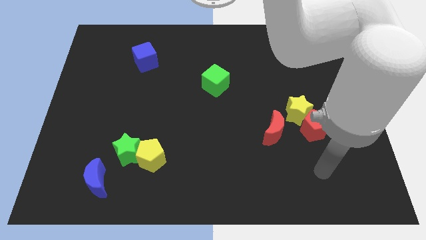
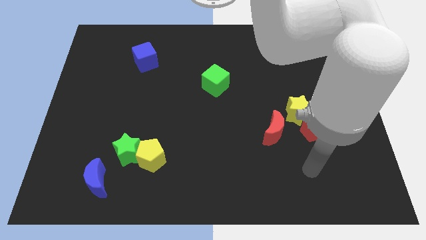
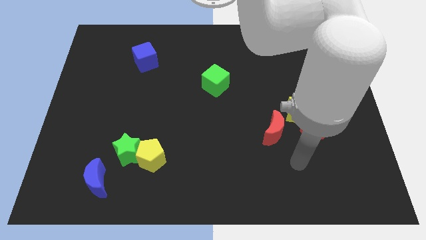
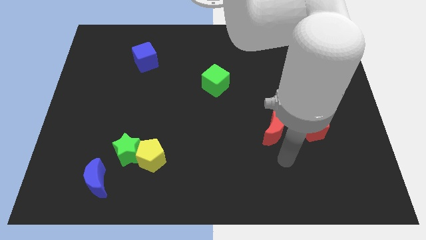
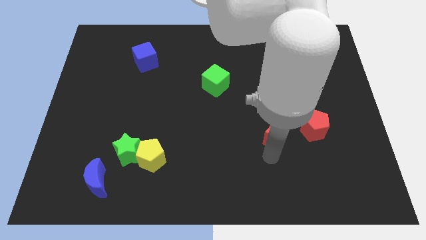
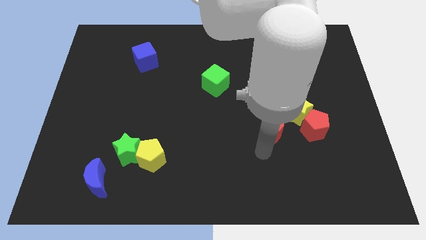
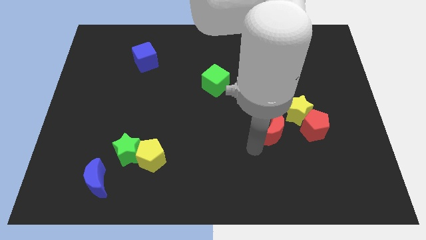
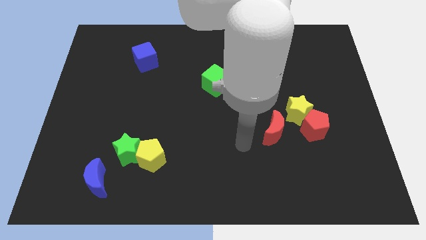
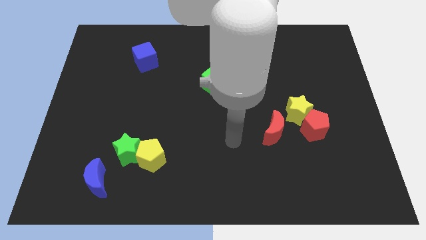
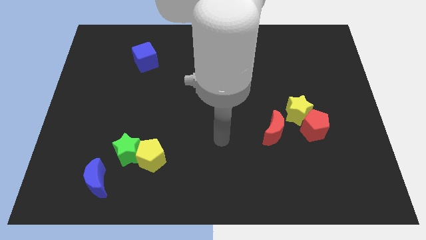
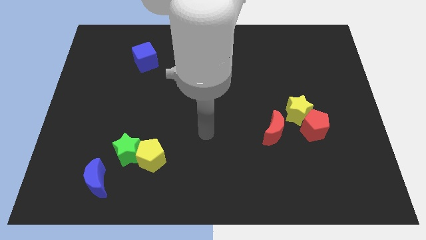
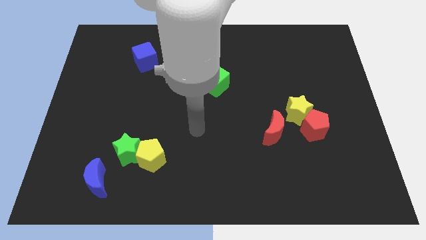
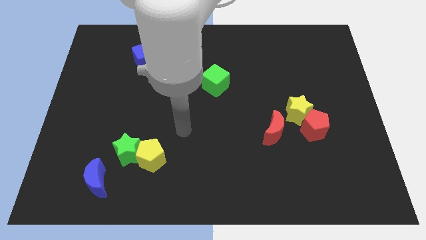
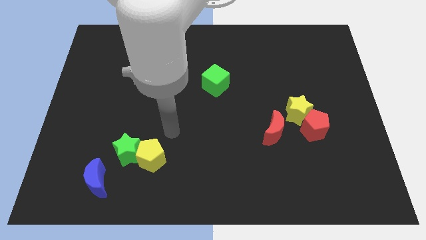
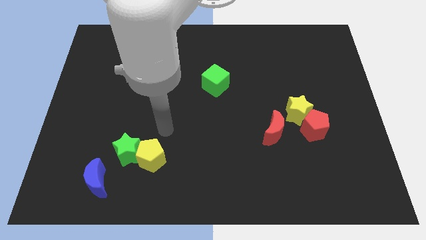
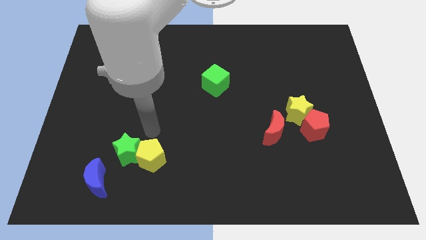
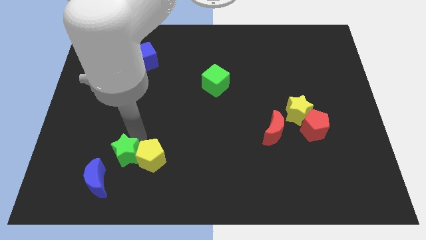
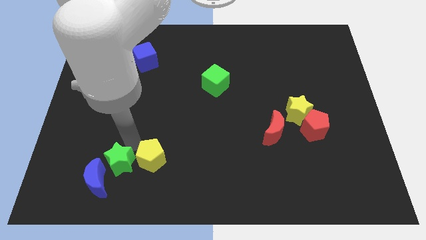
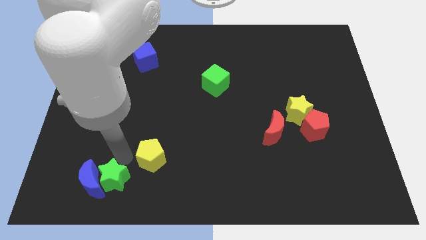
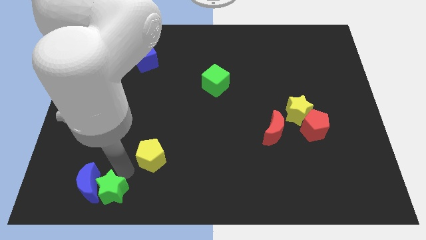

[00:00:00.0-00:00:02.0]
pull the yellow pentagon apart from the green star

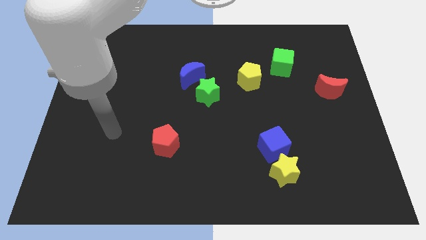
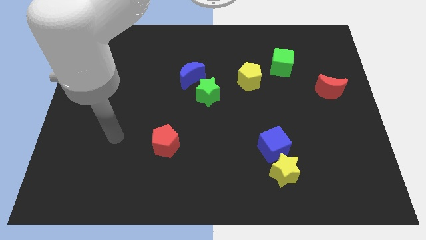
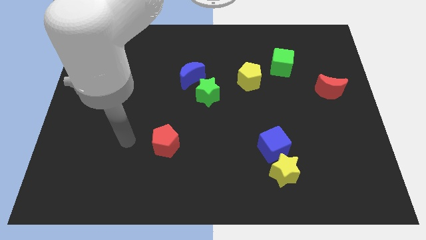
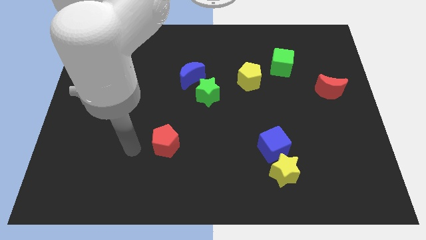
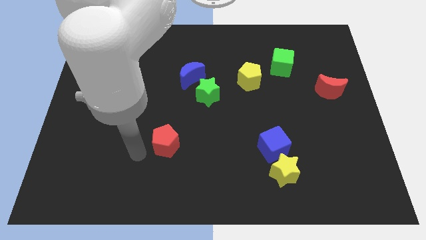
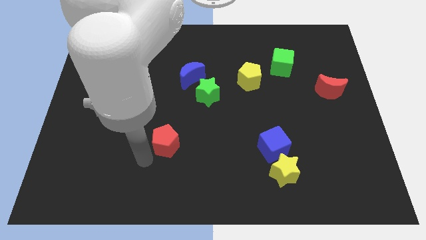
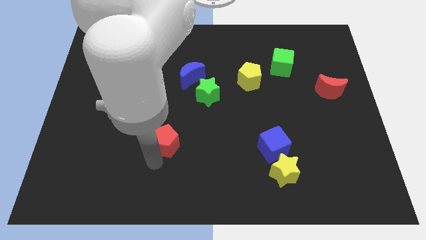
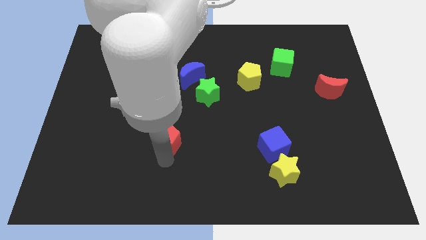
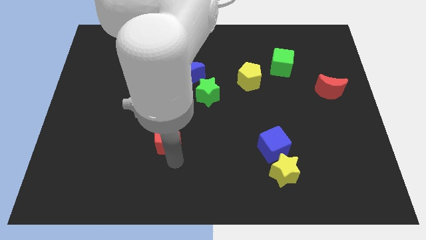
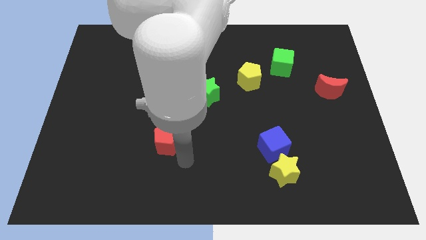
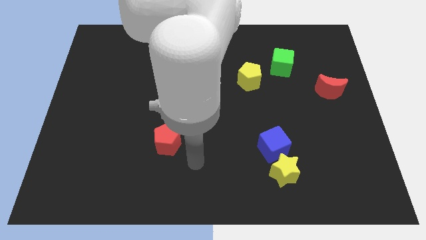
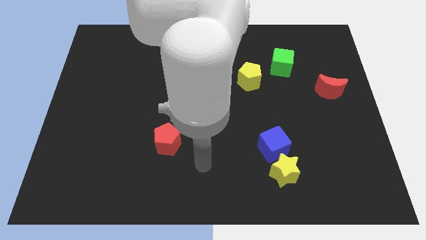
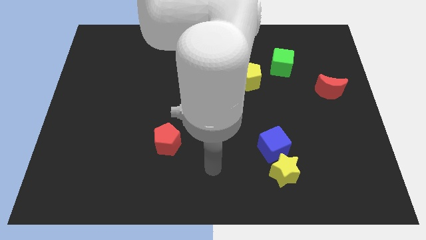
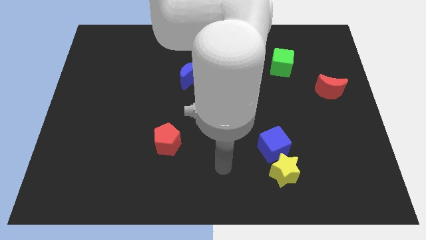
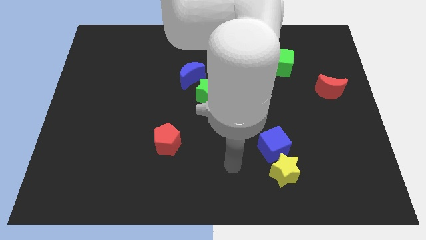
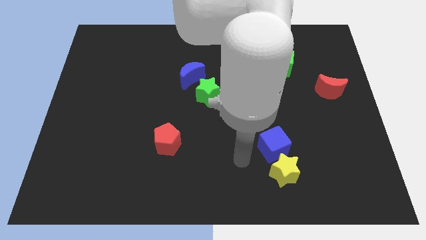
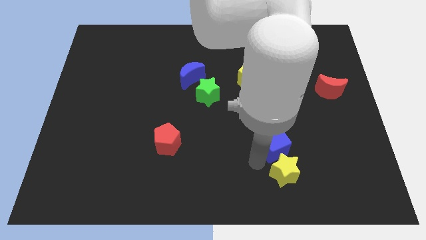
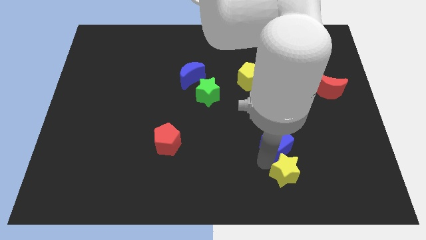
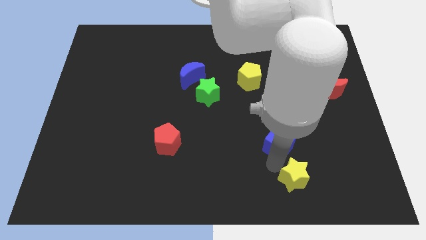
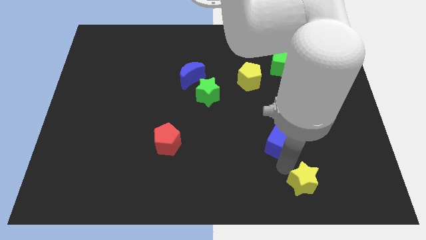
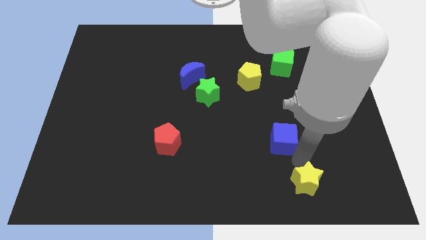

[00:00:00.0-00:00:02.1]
move the blue cube away from the yellow star

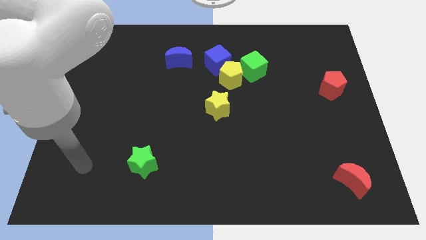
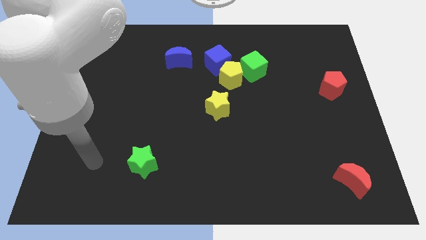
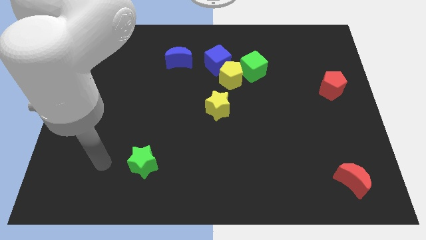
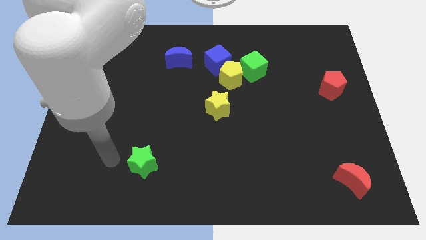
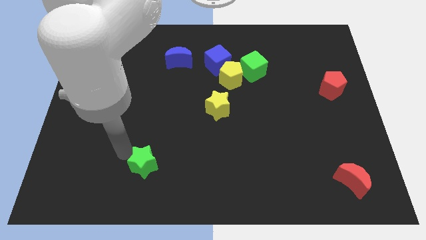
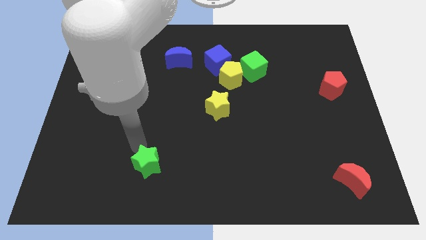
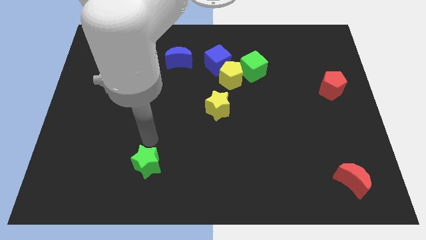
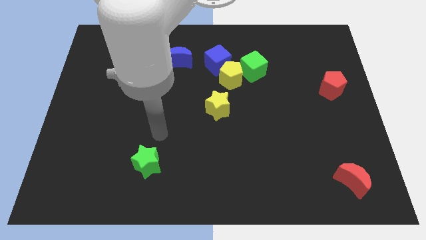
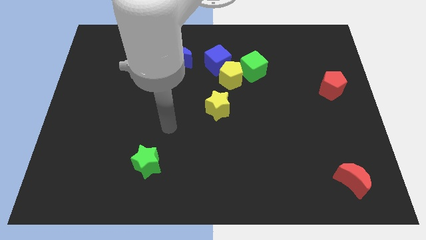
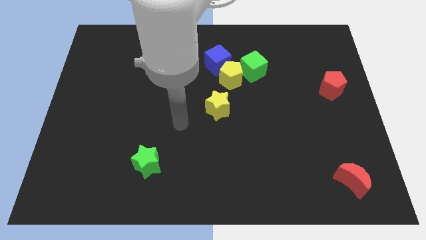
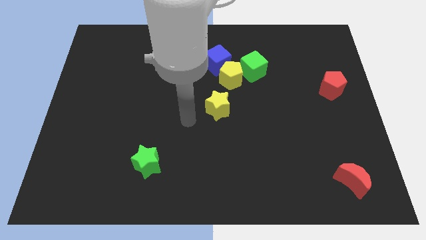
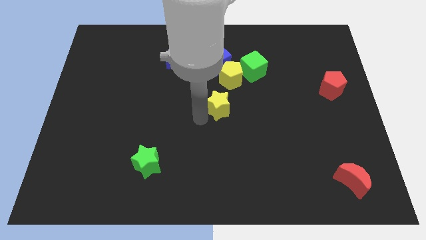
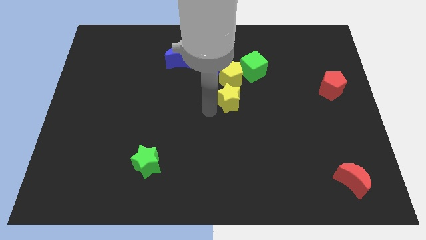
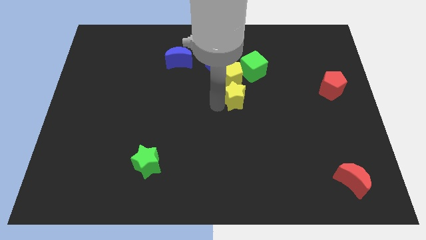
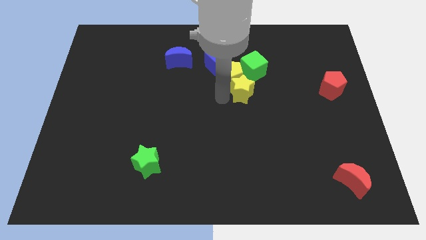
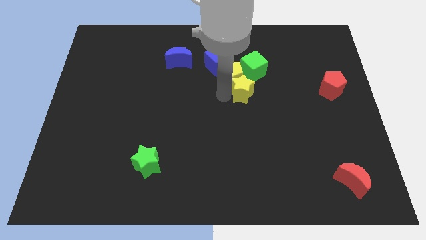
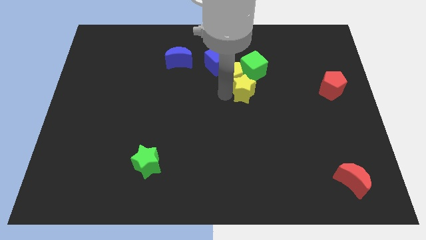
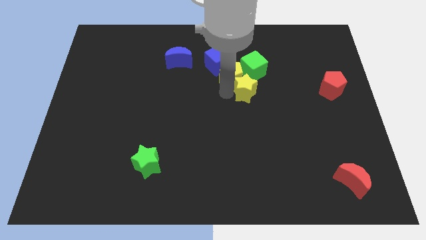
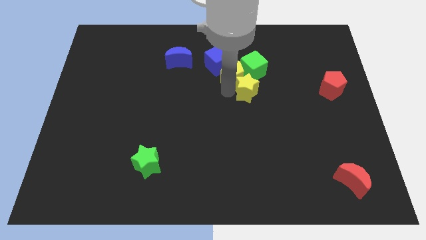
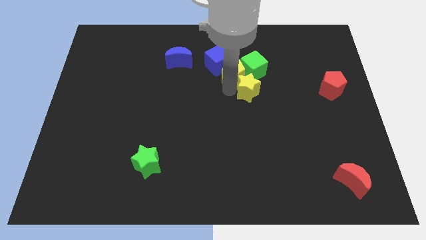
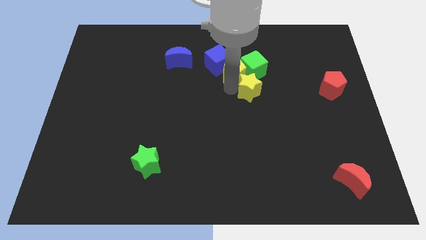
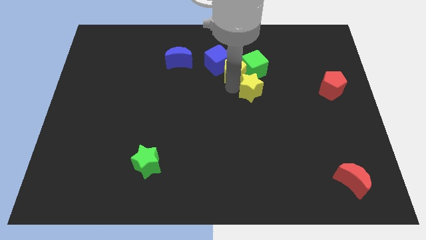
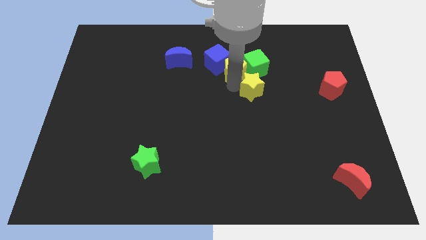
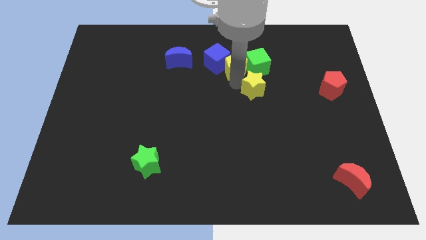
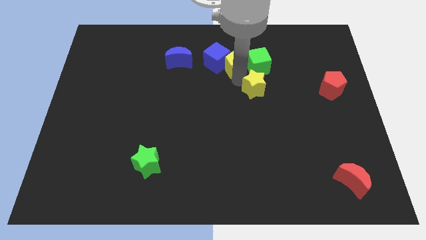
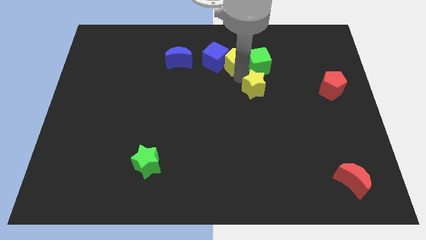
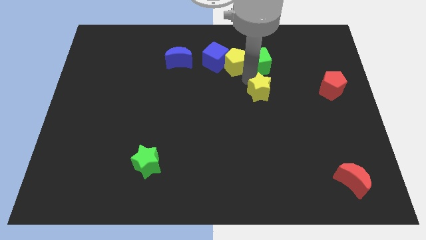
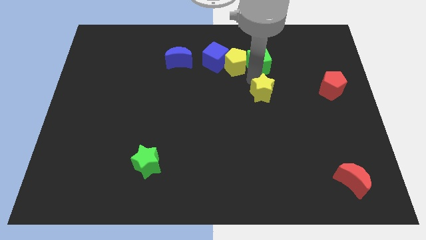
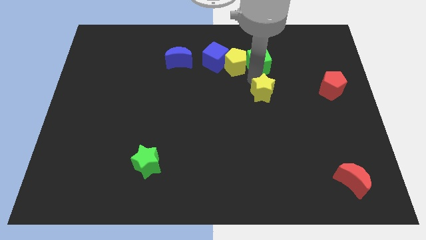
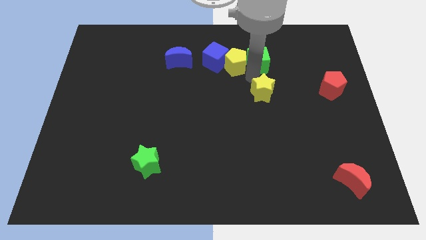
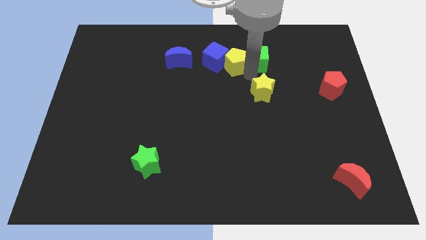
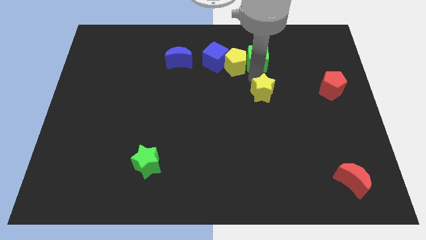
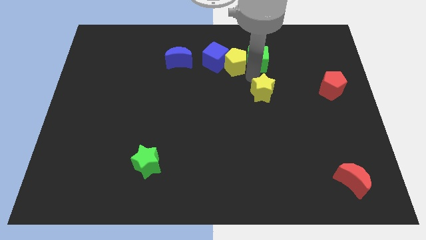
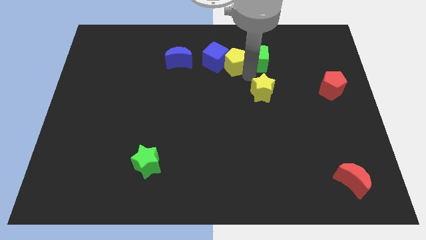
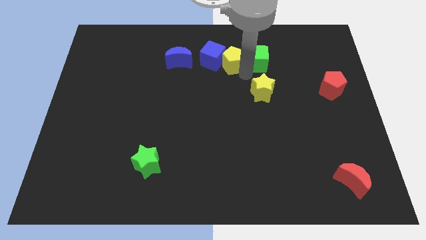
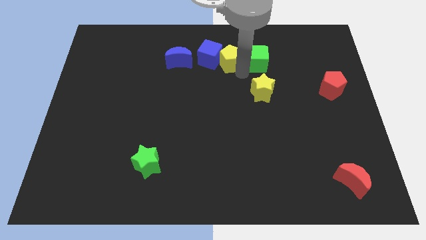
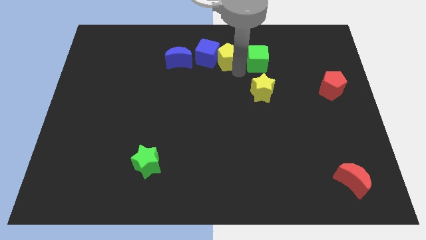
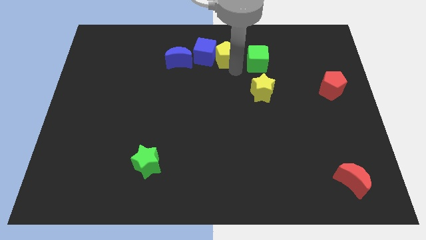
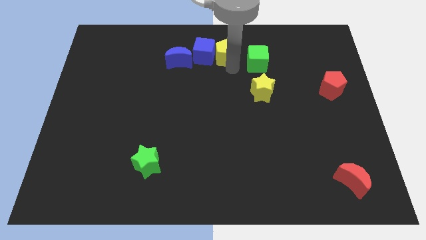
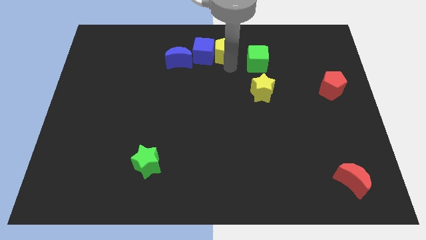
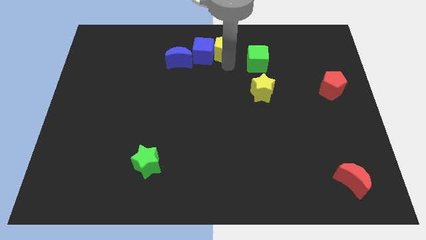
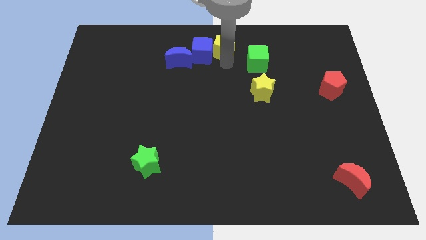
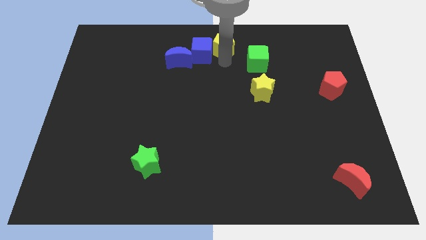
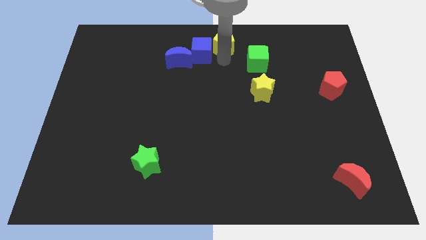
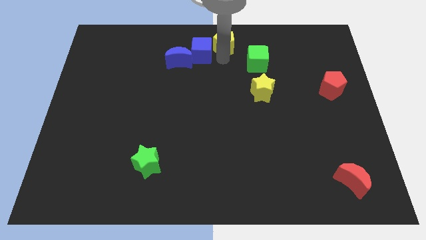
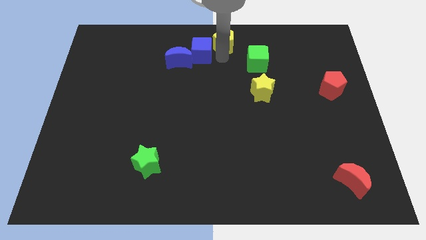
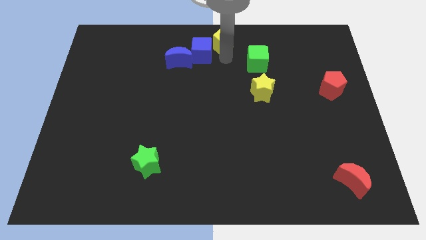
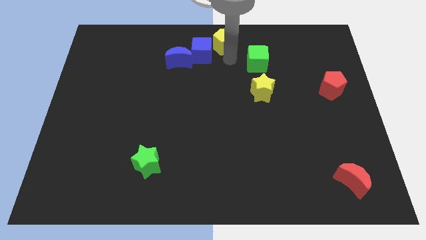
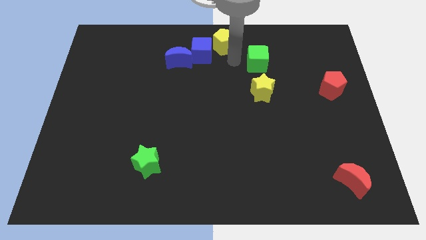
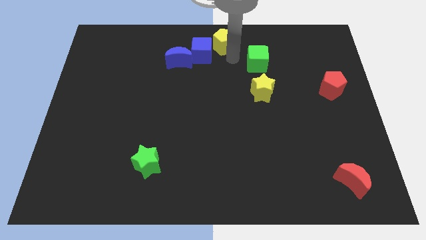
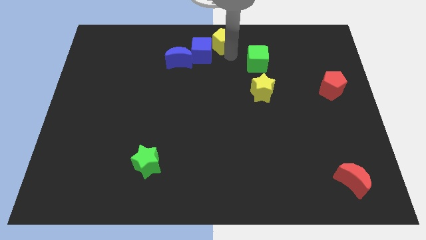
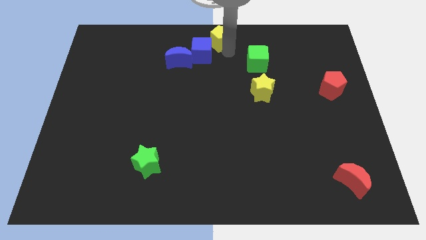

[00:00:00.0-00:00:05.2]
move the yellow pentagon away from the blue cube, green cube, and yellow star
